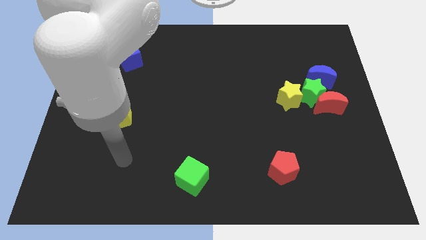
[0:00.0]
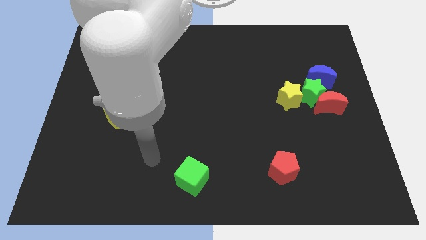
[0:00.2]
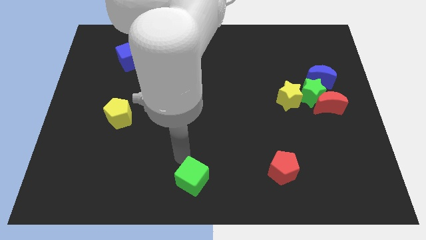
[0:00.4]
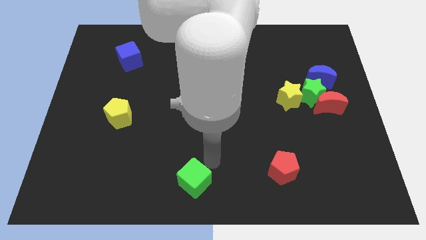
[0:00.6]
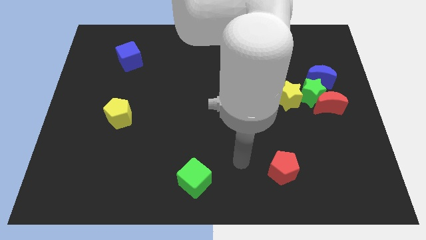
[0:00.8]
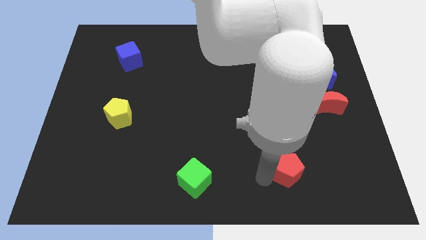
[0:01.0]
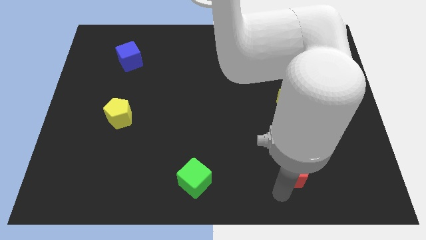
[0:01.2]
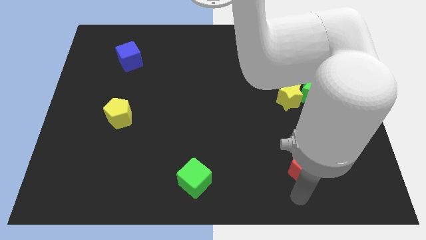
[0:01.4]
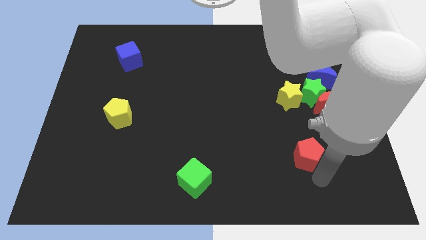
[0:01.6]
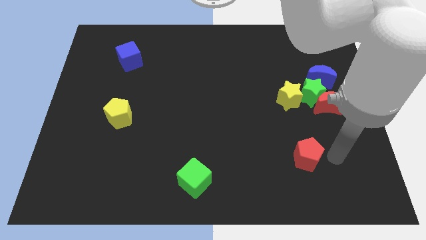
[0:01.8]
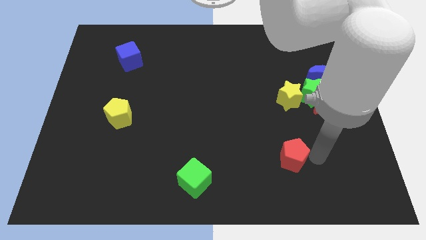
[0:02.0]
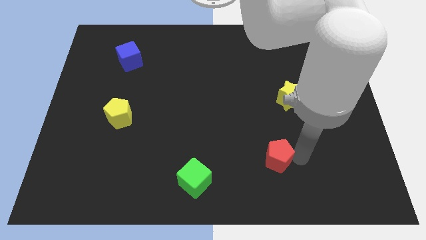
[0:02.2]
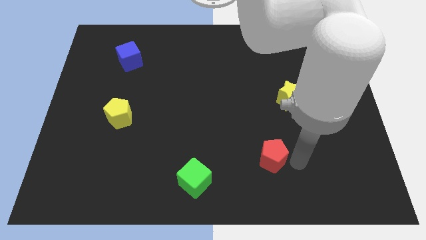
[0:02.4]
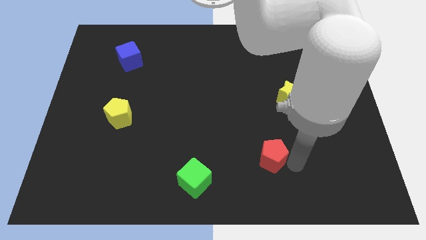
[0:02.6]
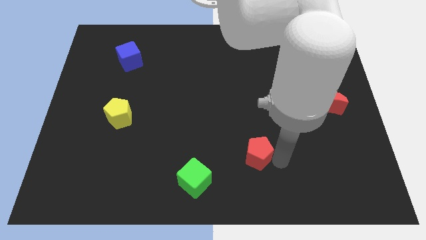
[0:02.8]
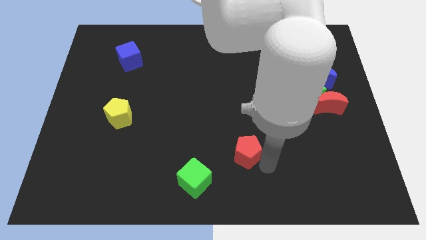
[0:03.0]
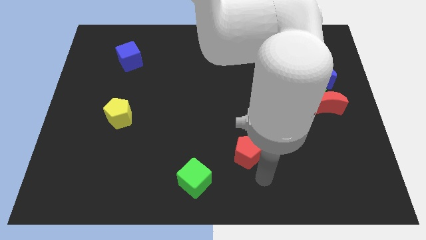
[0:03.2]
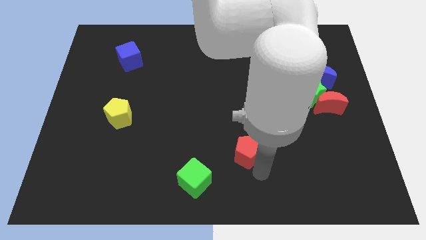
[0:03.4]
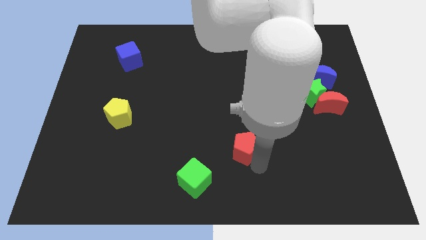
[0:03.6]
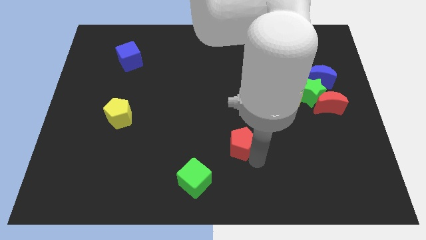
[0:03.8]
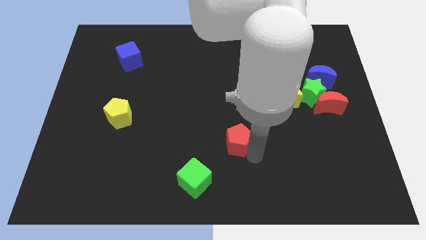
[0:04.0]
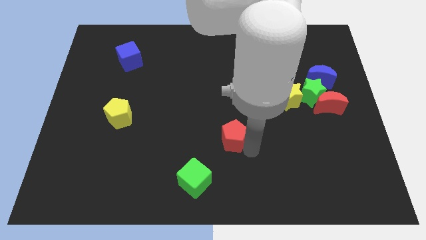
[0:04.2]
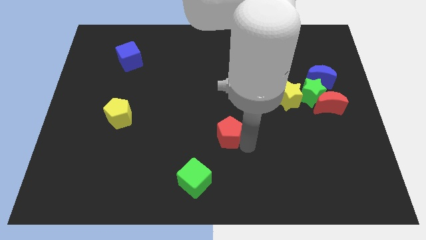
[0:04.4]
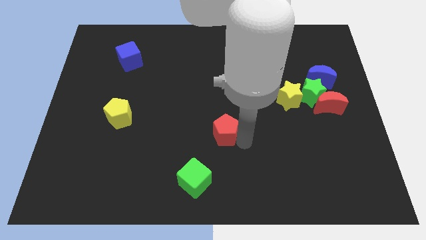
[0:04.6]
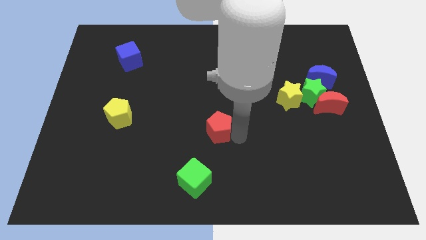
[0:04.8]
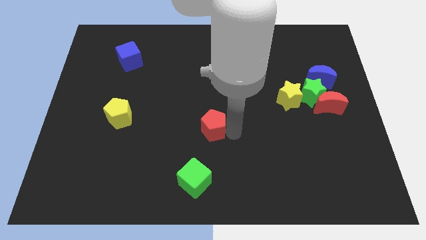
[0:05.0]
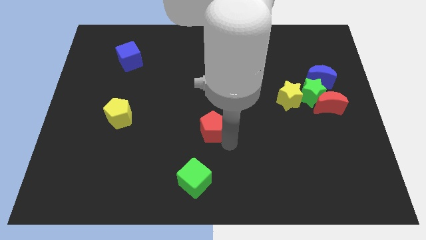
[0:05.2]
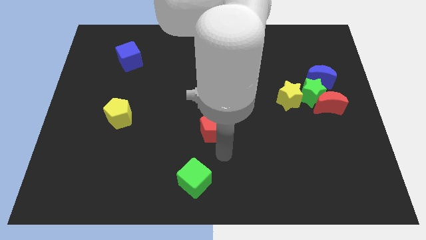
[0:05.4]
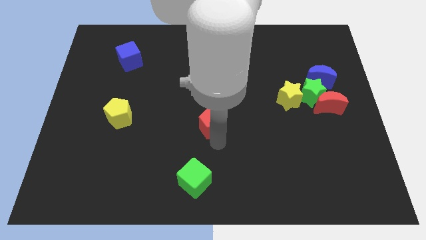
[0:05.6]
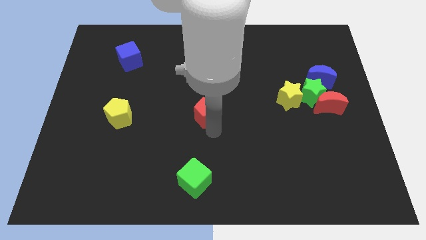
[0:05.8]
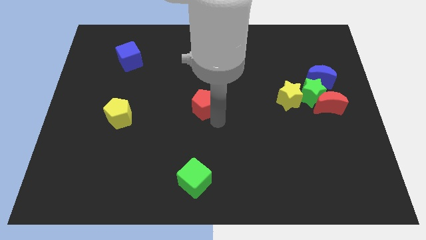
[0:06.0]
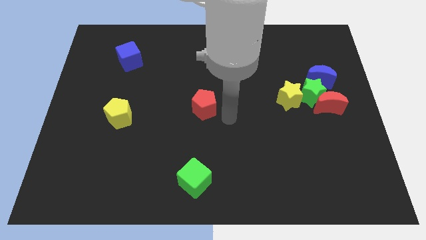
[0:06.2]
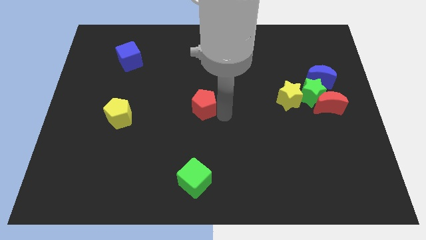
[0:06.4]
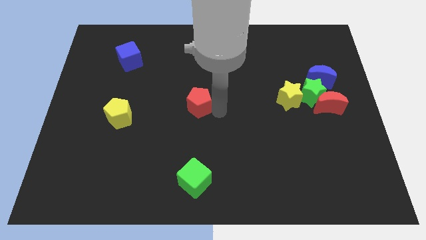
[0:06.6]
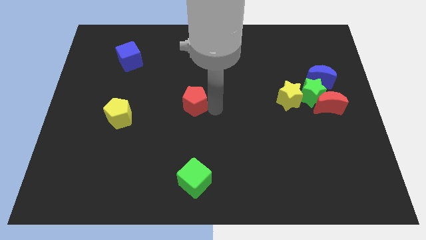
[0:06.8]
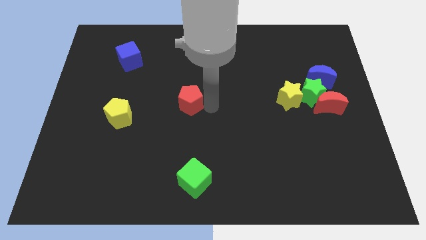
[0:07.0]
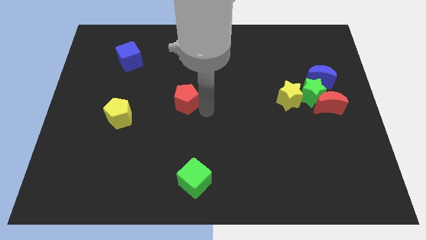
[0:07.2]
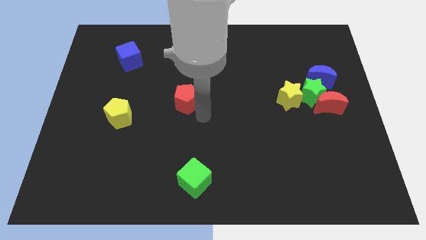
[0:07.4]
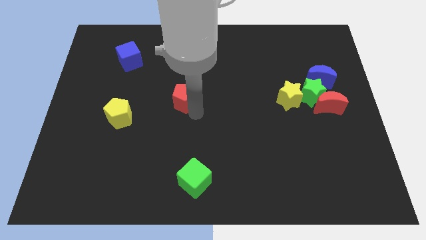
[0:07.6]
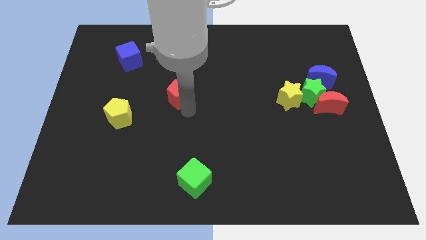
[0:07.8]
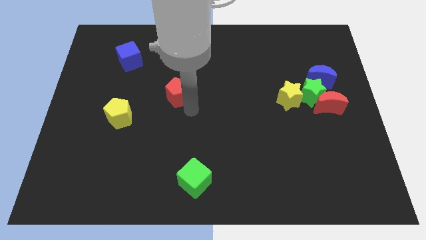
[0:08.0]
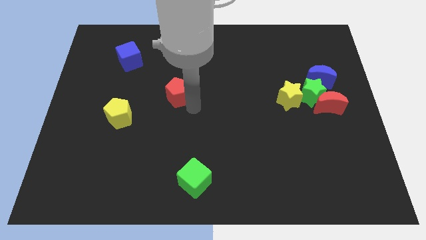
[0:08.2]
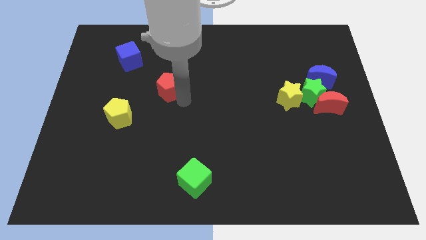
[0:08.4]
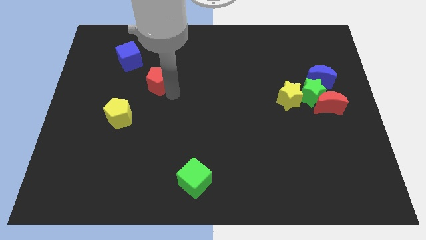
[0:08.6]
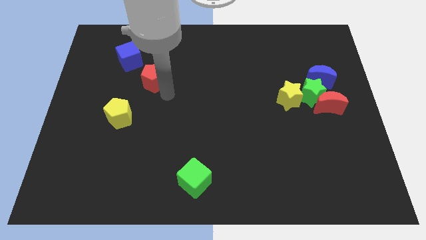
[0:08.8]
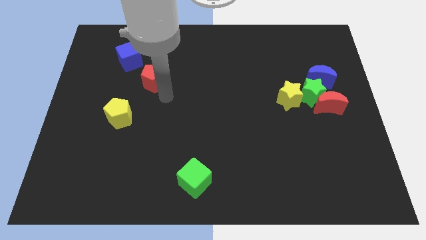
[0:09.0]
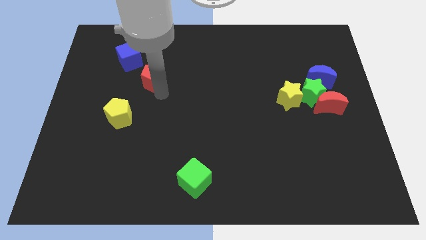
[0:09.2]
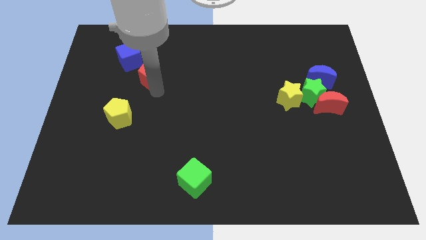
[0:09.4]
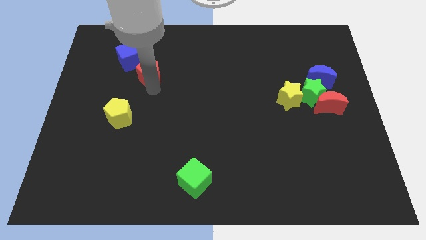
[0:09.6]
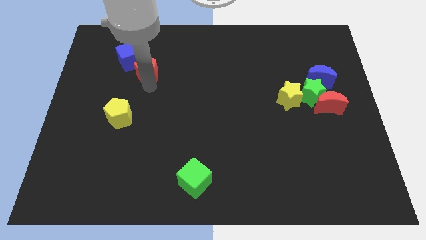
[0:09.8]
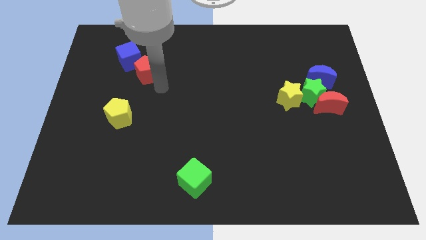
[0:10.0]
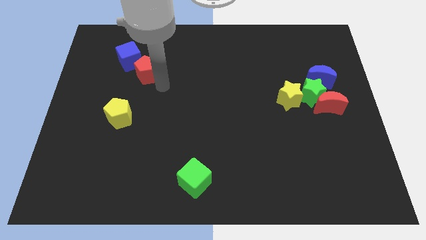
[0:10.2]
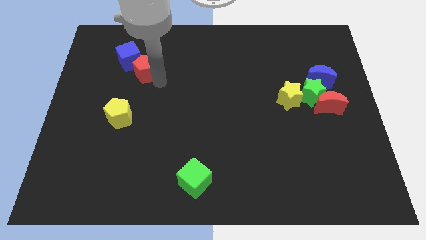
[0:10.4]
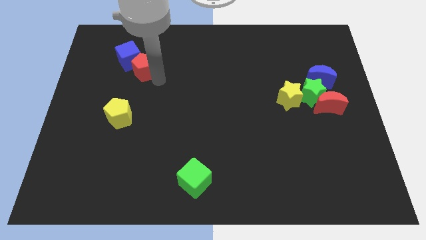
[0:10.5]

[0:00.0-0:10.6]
put the red pentagon to the blue cube
